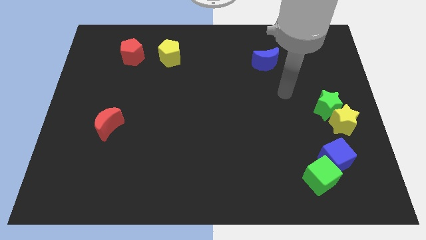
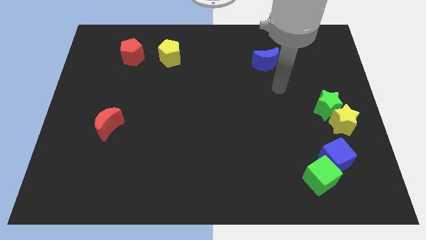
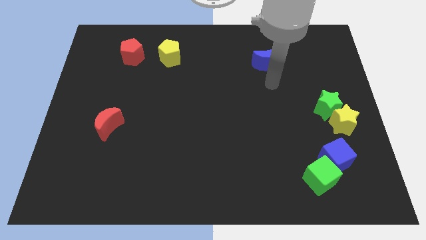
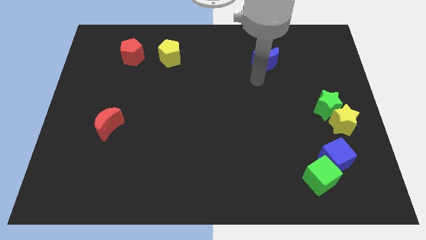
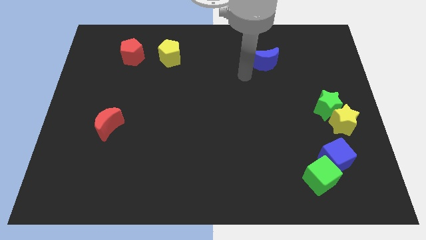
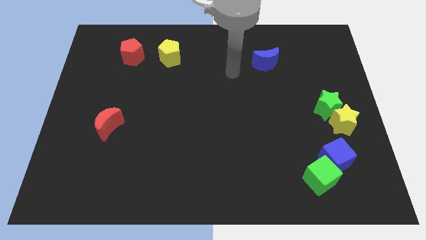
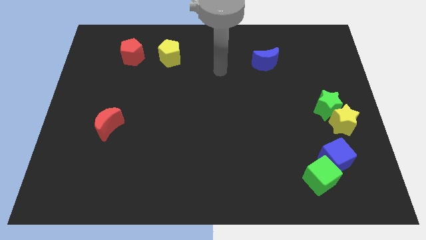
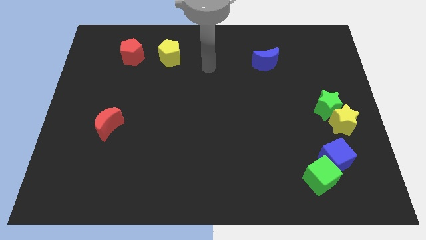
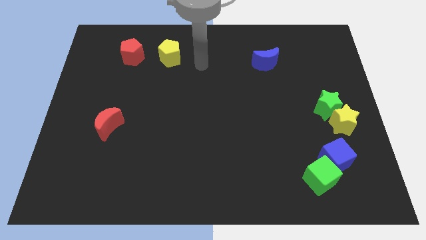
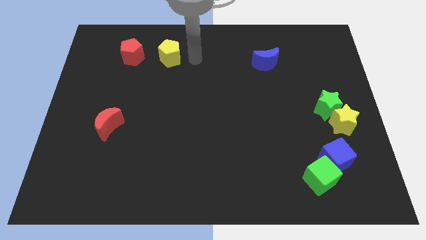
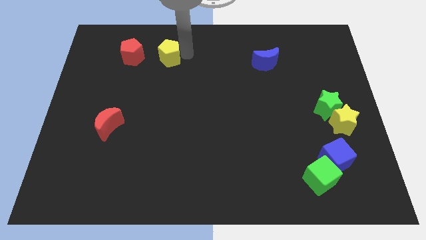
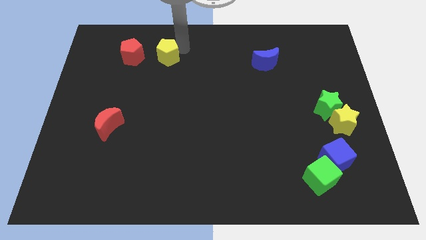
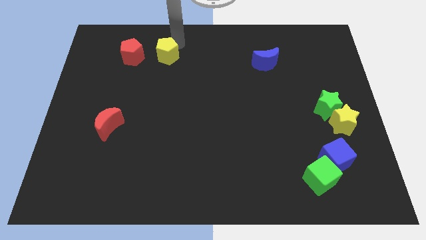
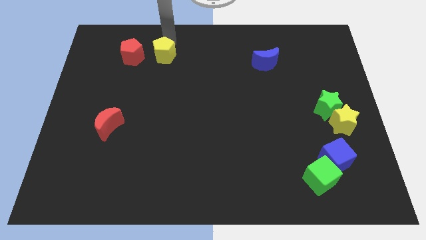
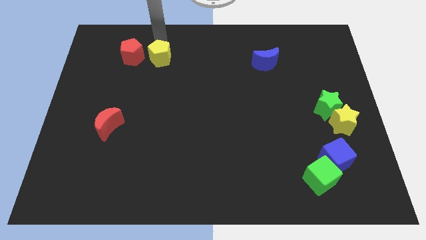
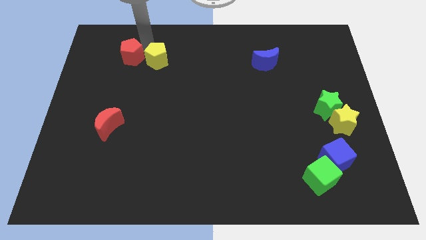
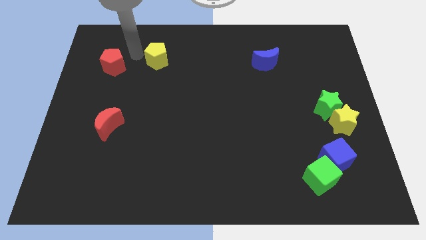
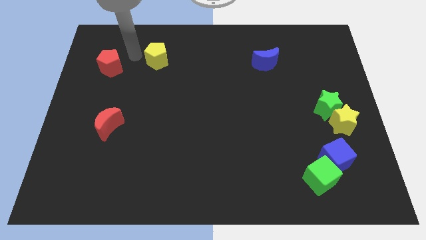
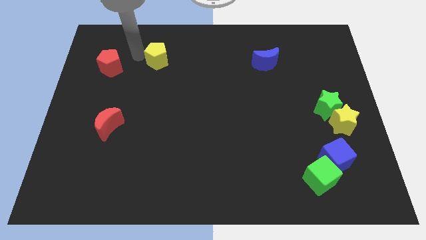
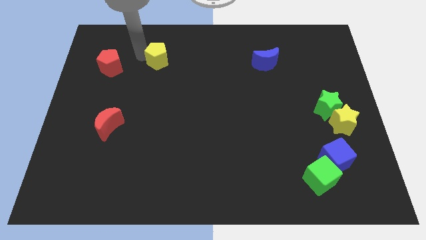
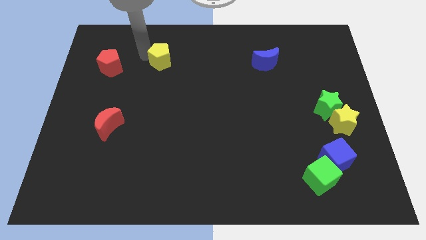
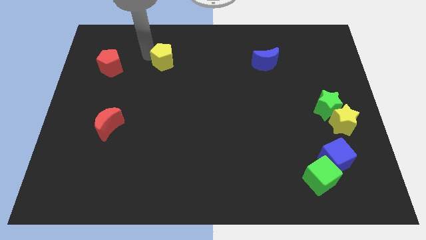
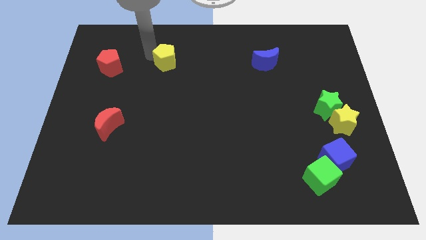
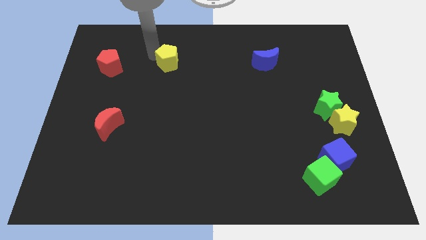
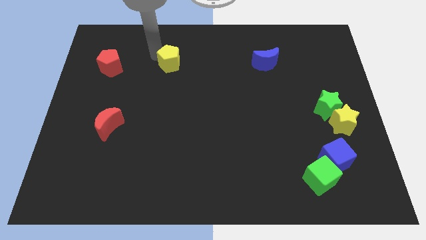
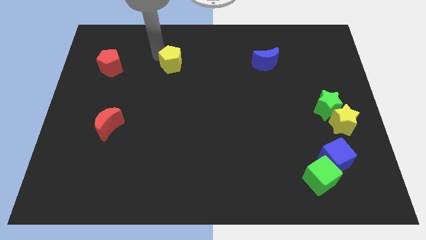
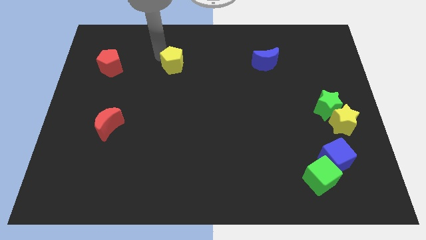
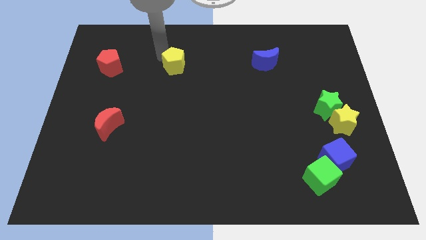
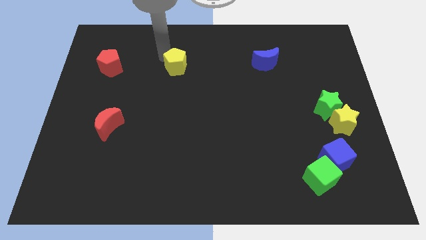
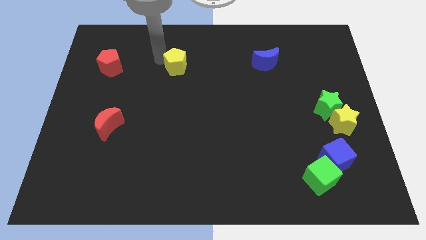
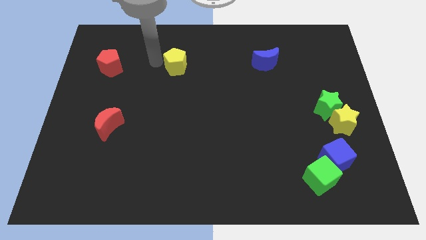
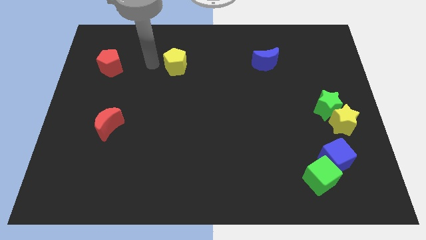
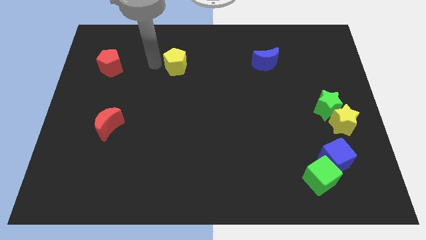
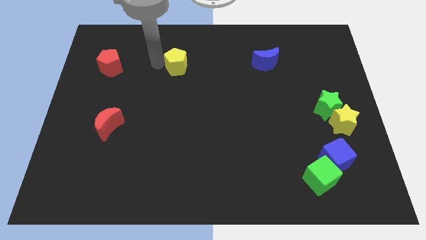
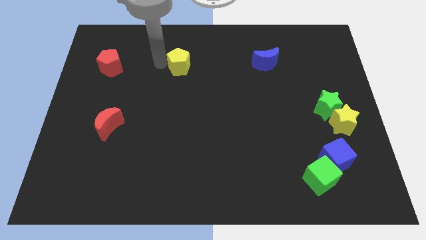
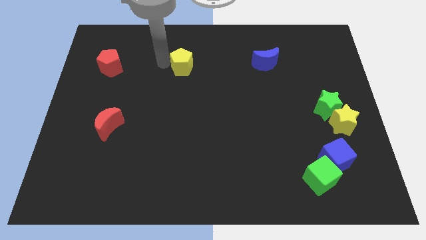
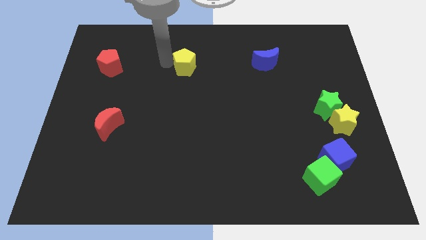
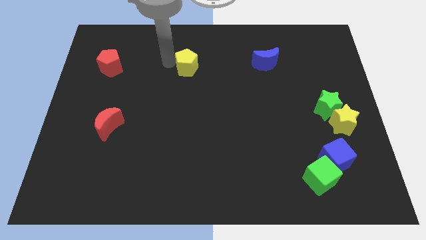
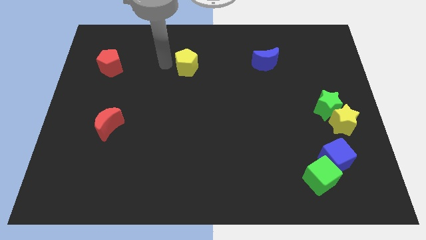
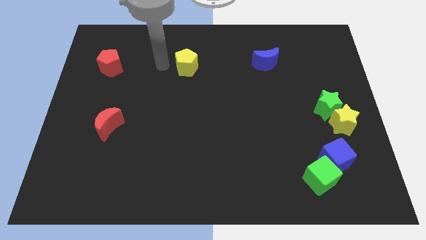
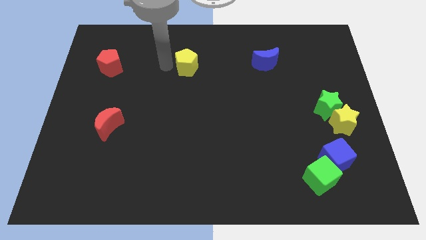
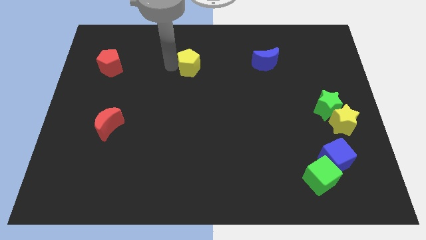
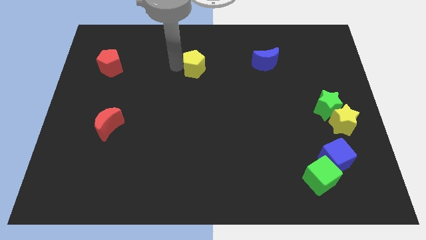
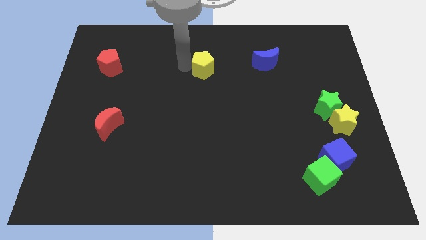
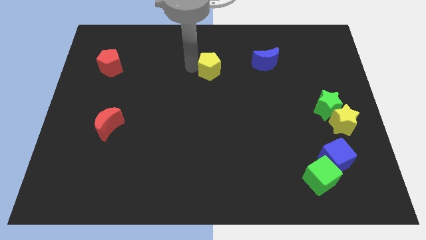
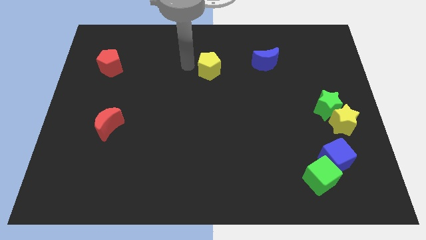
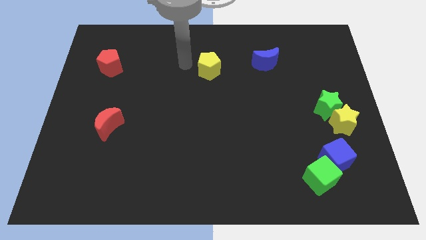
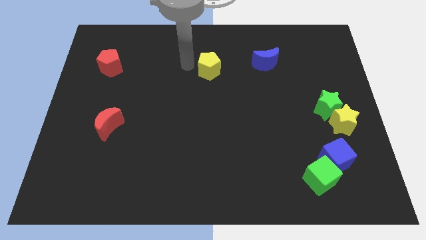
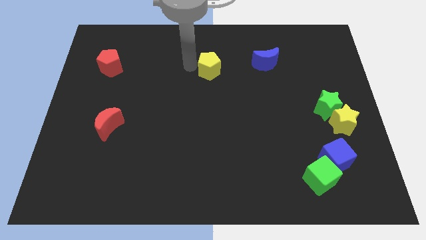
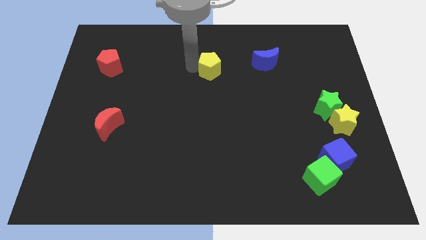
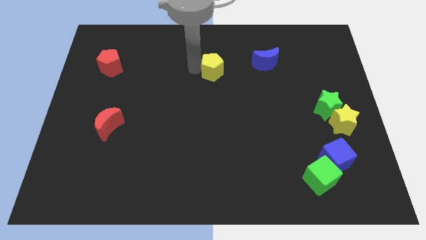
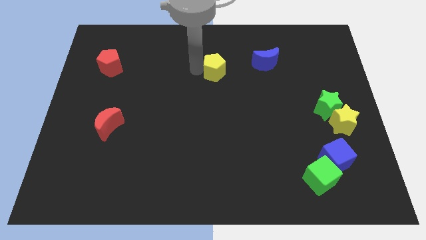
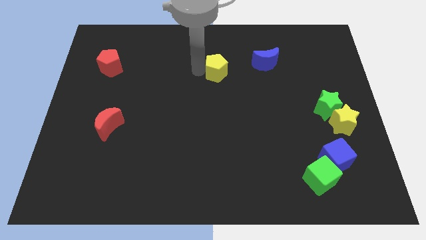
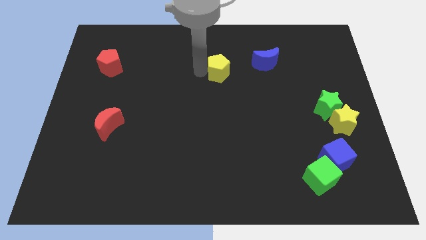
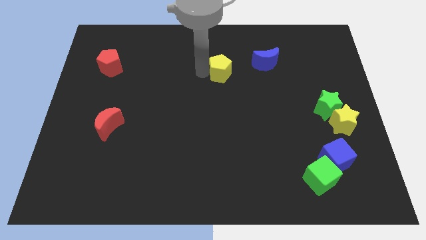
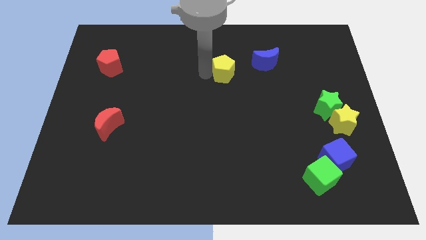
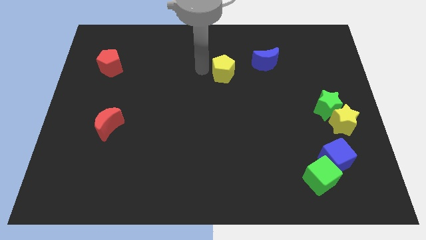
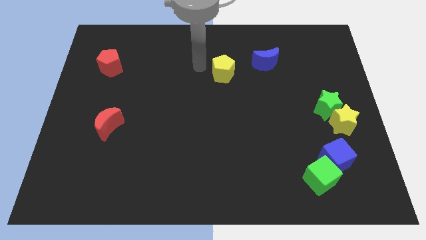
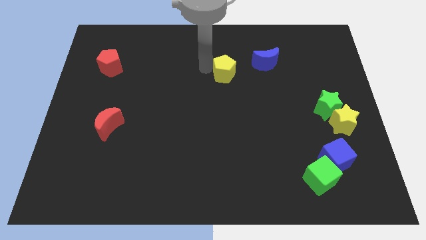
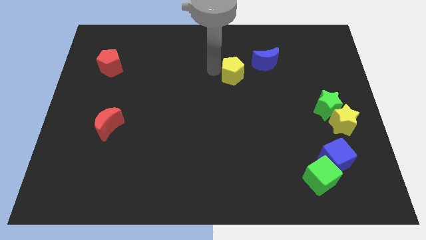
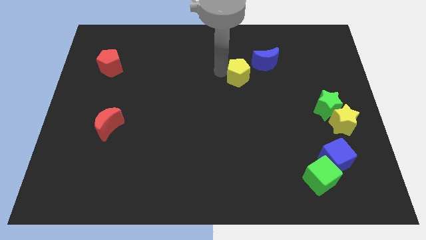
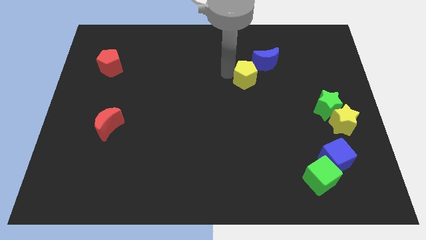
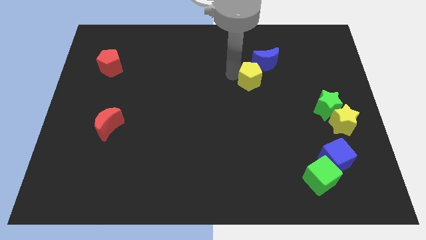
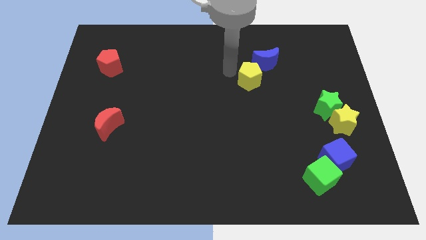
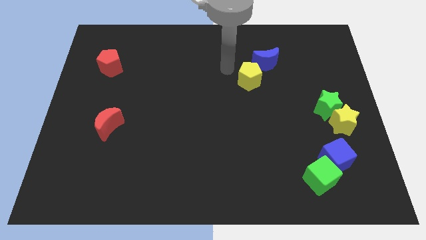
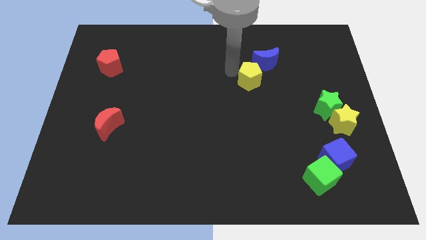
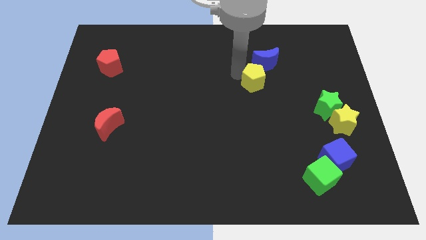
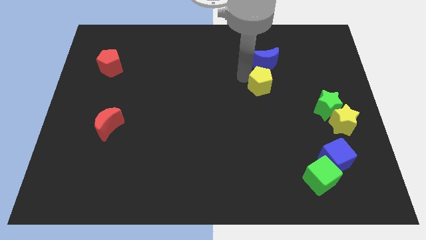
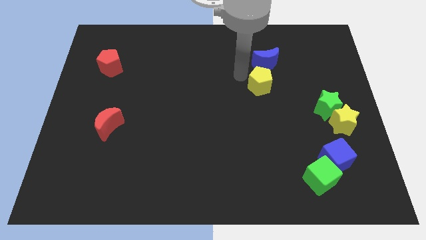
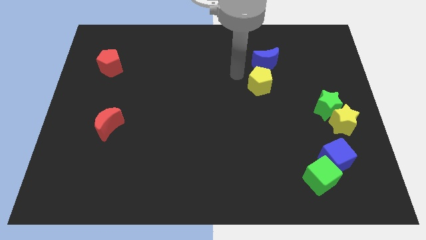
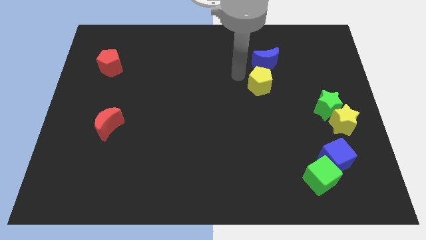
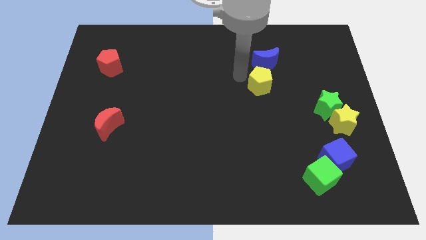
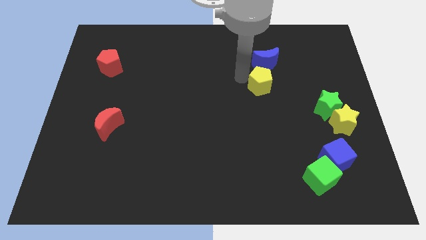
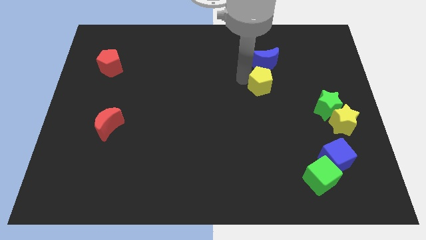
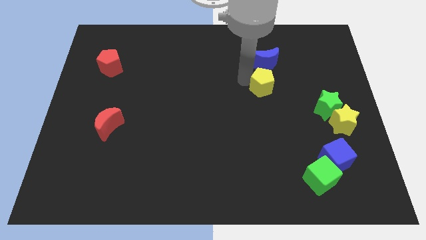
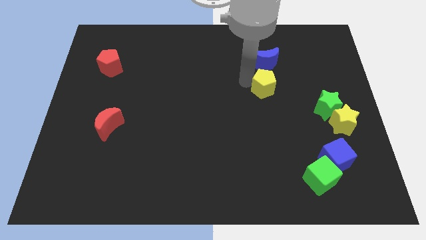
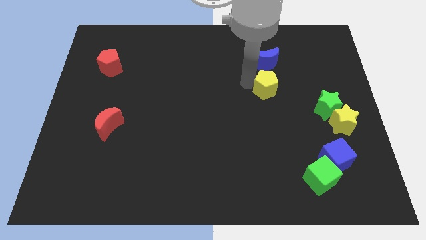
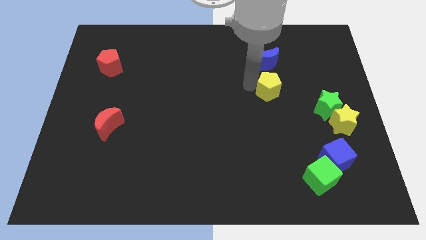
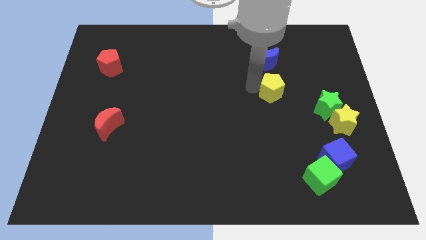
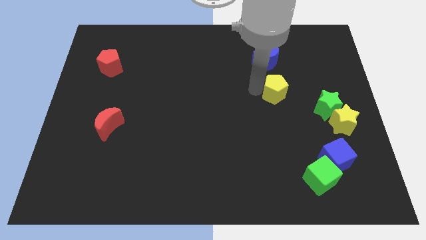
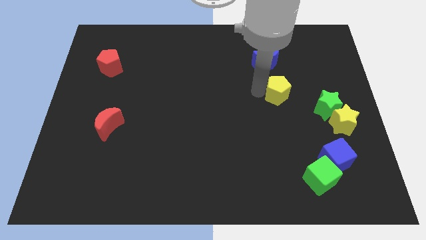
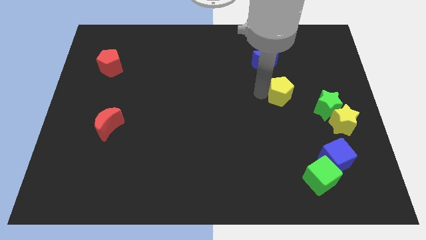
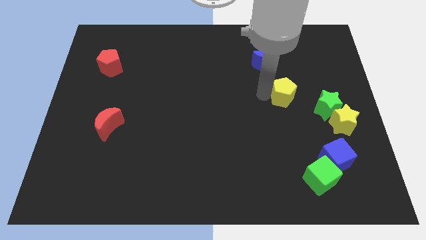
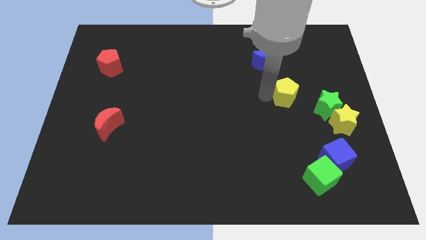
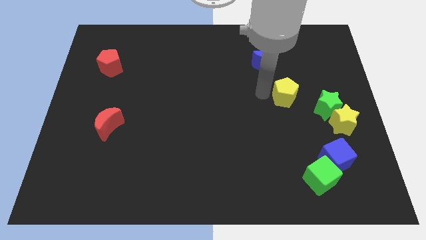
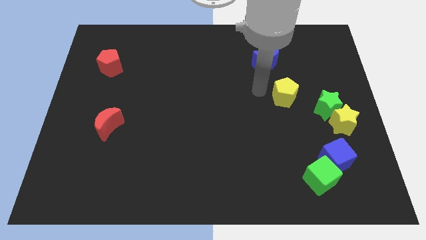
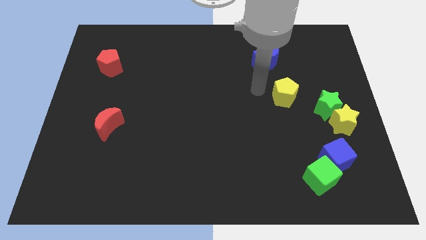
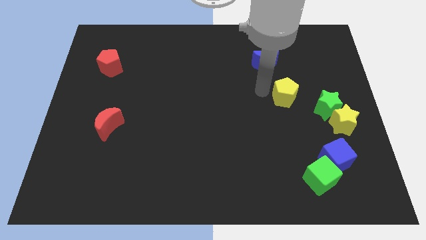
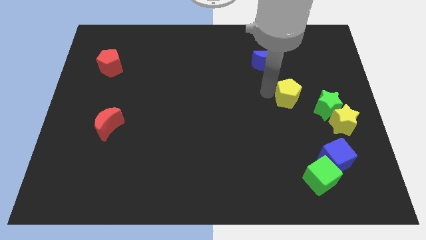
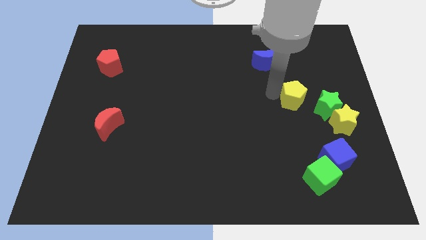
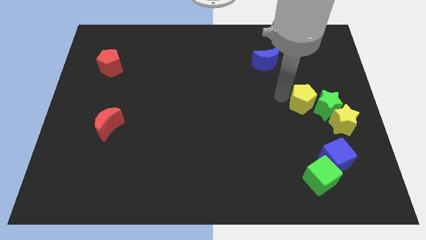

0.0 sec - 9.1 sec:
move the yellow pentagon towards the green star
